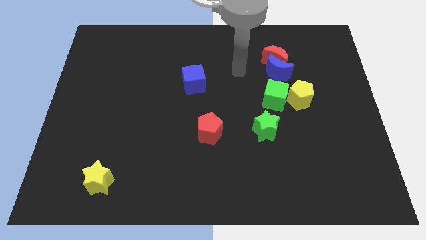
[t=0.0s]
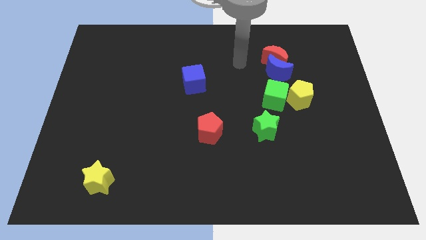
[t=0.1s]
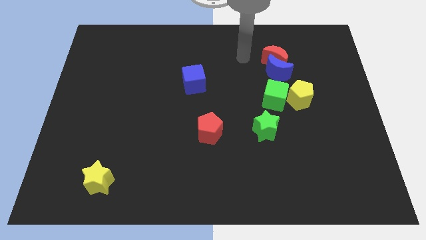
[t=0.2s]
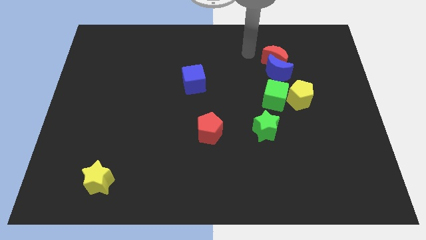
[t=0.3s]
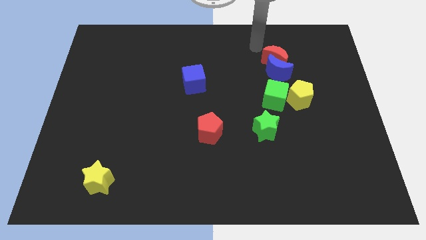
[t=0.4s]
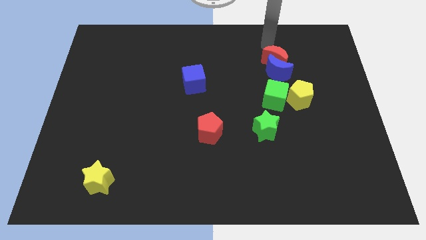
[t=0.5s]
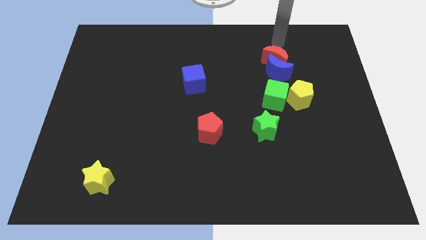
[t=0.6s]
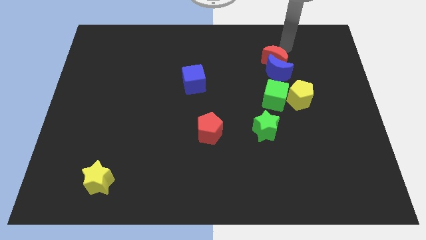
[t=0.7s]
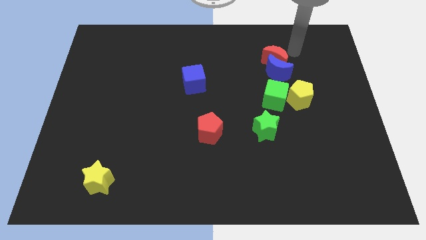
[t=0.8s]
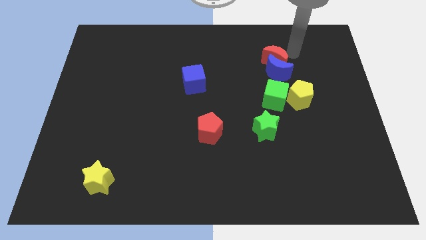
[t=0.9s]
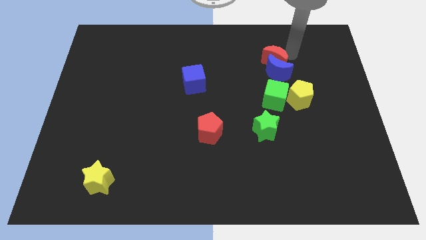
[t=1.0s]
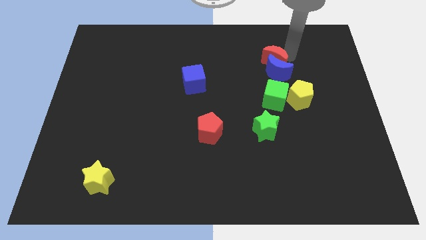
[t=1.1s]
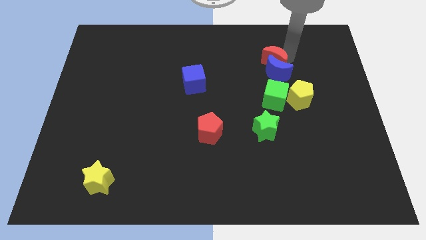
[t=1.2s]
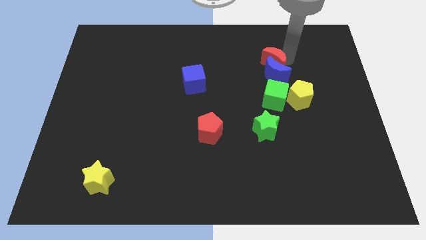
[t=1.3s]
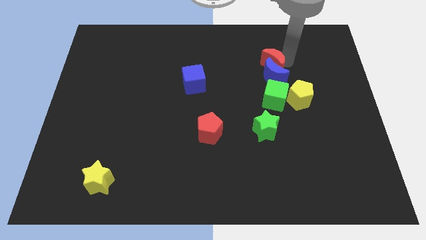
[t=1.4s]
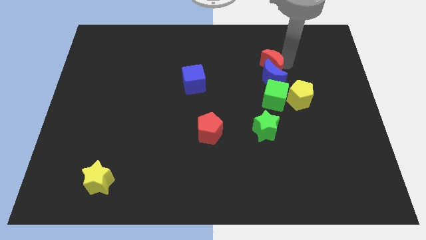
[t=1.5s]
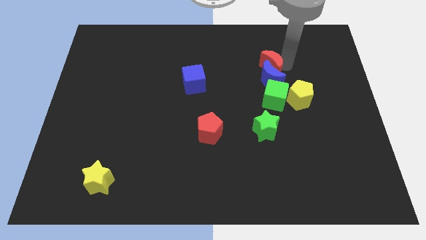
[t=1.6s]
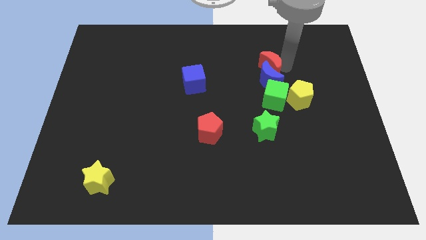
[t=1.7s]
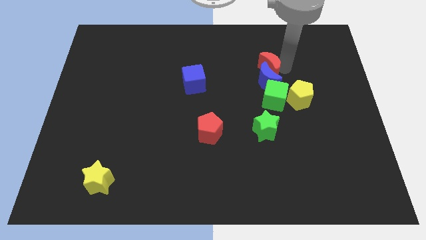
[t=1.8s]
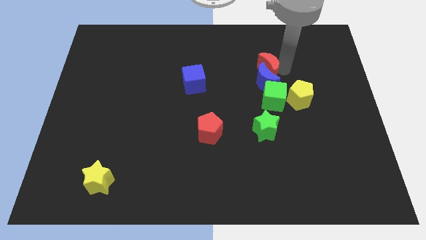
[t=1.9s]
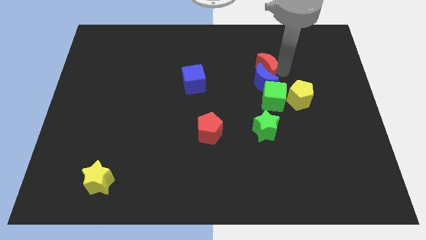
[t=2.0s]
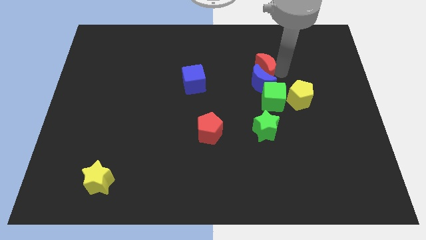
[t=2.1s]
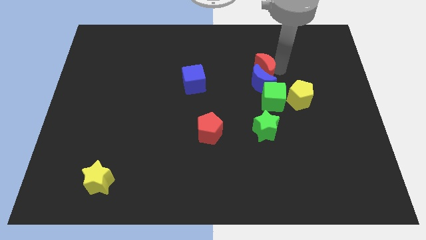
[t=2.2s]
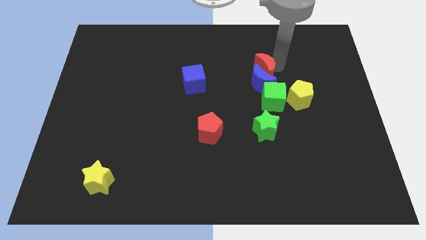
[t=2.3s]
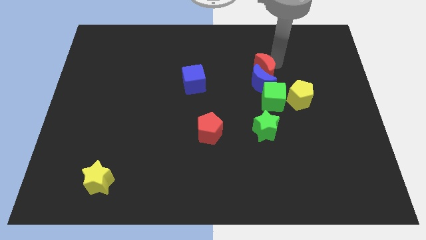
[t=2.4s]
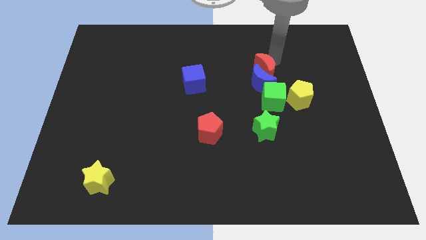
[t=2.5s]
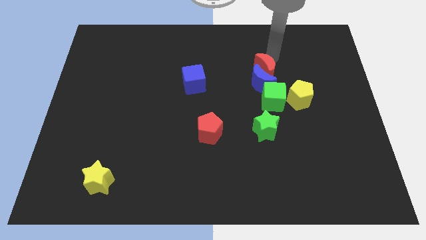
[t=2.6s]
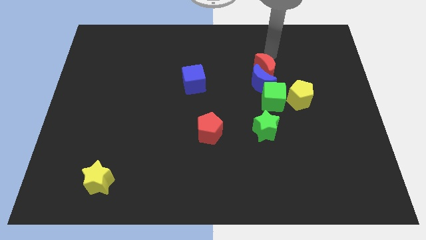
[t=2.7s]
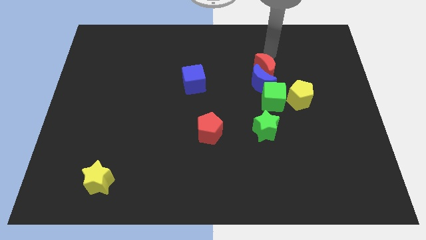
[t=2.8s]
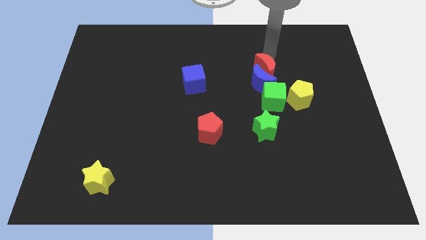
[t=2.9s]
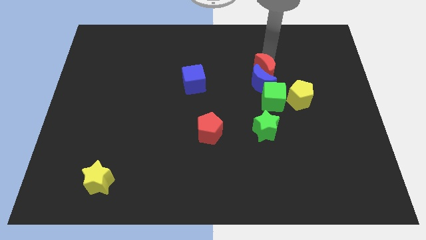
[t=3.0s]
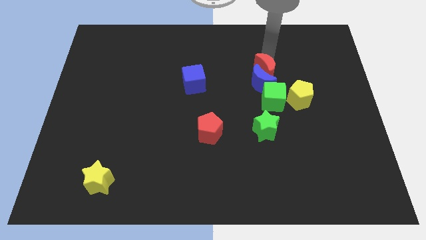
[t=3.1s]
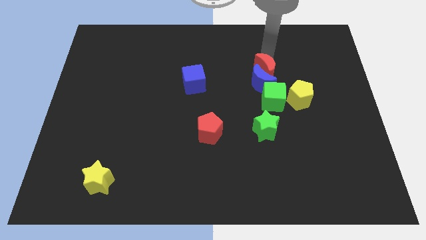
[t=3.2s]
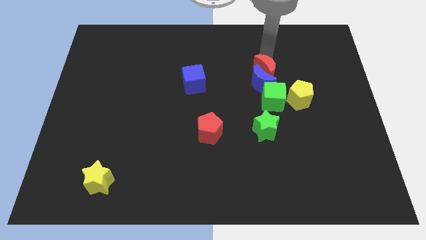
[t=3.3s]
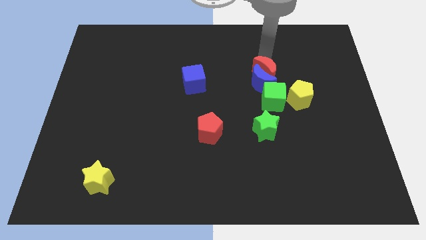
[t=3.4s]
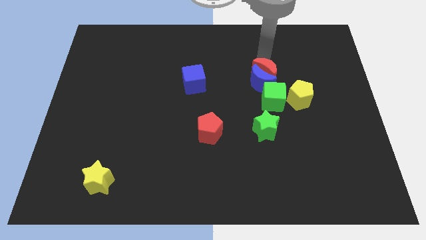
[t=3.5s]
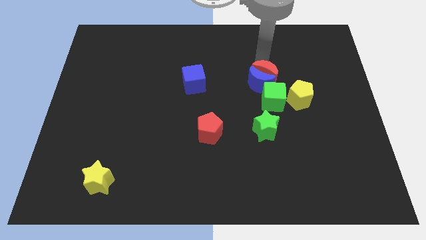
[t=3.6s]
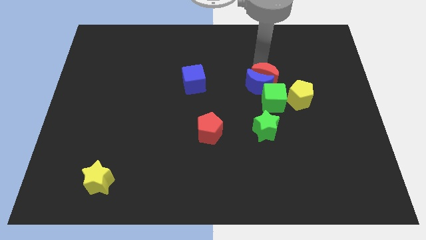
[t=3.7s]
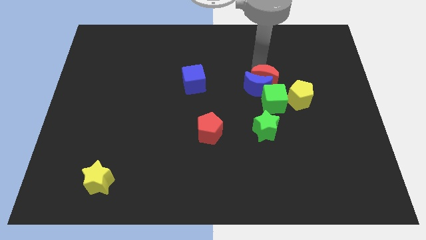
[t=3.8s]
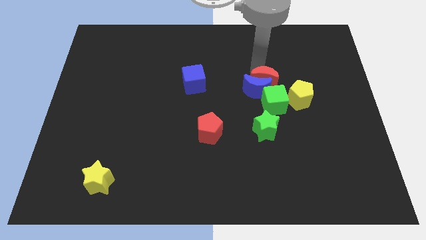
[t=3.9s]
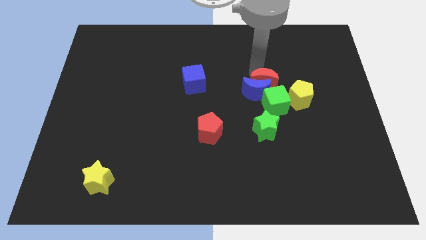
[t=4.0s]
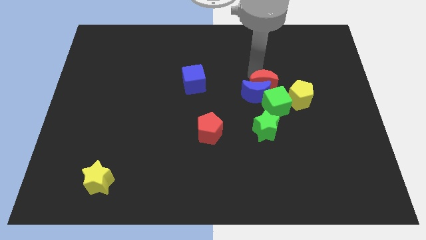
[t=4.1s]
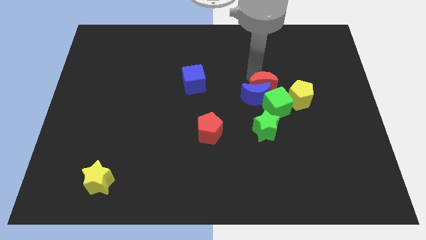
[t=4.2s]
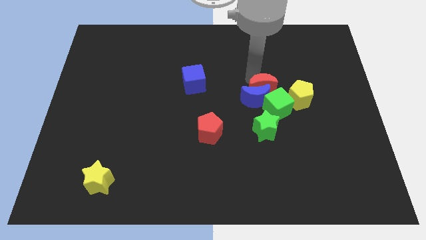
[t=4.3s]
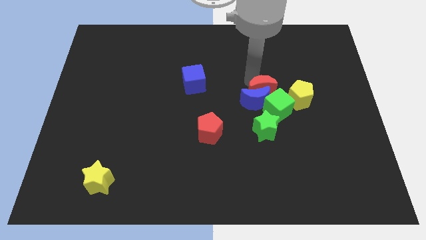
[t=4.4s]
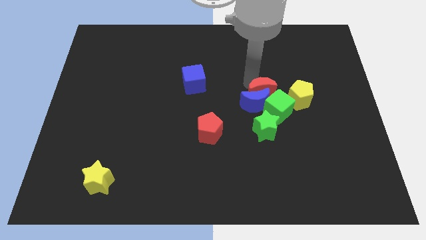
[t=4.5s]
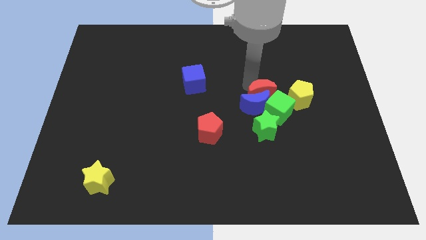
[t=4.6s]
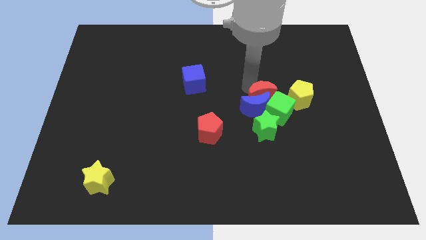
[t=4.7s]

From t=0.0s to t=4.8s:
move the red moon towards the green cube

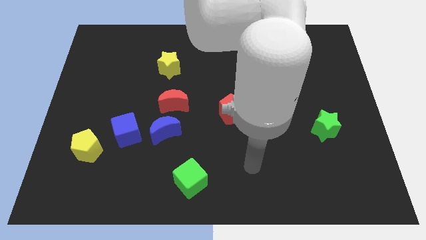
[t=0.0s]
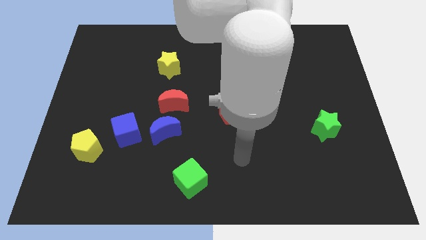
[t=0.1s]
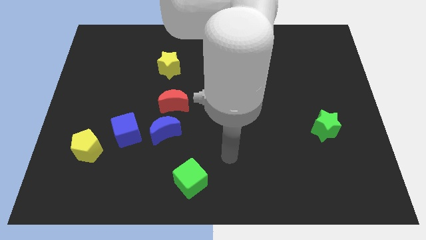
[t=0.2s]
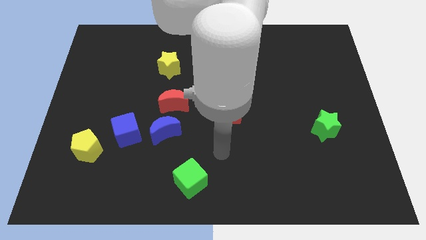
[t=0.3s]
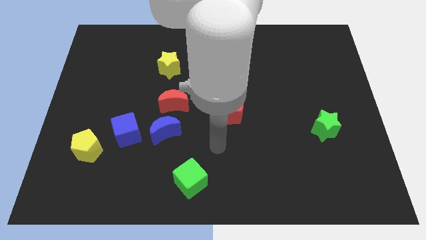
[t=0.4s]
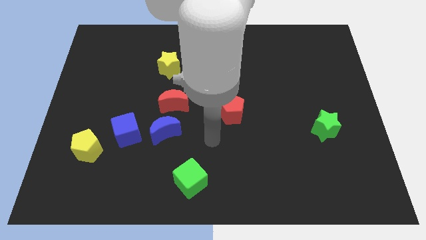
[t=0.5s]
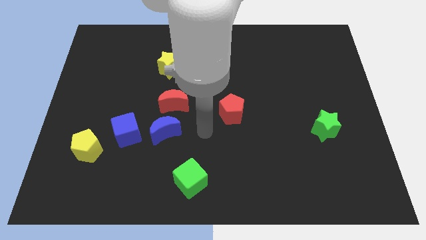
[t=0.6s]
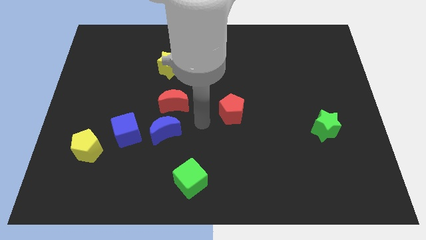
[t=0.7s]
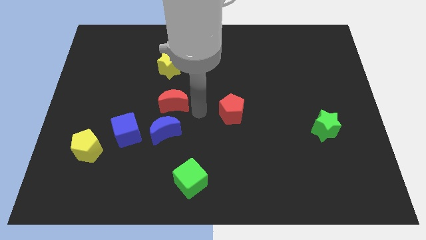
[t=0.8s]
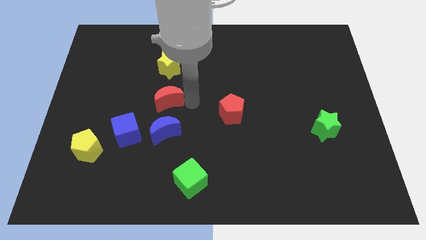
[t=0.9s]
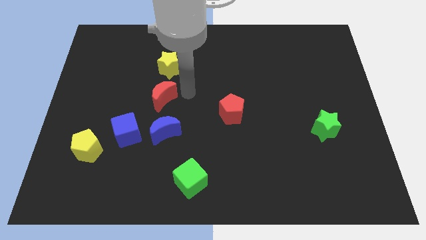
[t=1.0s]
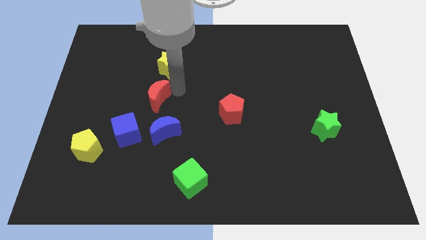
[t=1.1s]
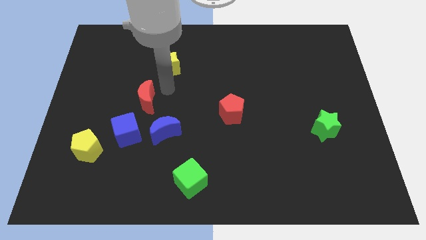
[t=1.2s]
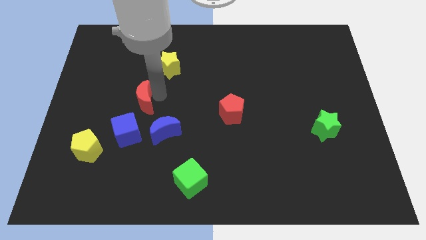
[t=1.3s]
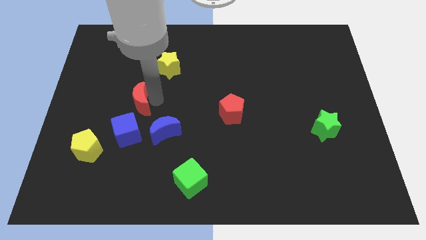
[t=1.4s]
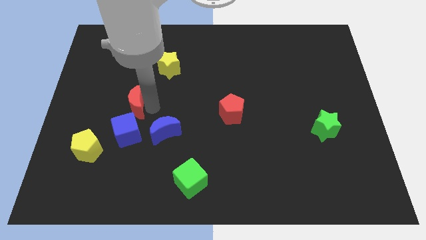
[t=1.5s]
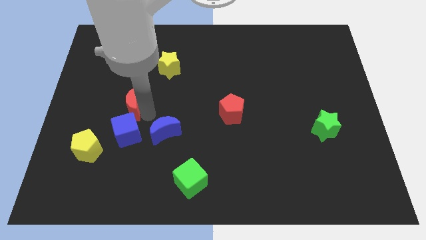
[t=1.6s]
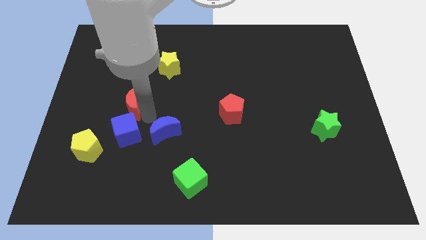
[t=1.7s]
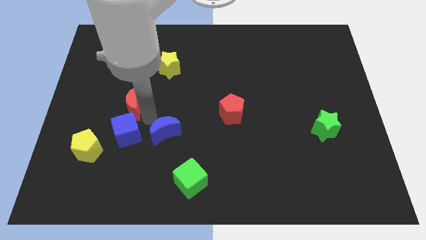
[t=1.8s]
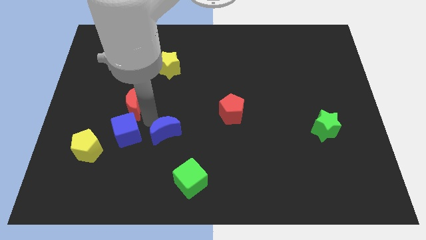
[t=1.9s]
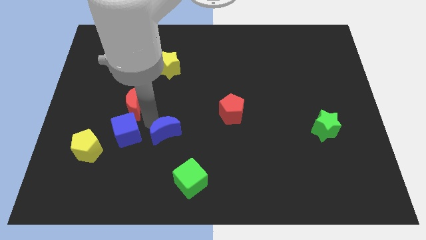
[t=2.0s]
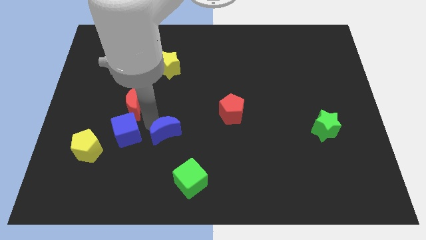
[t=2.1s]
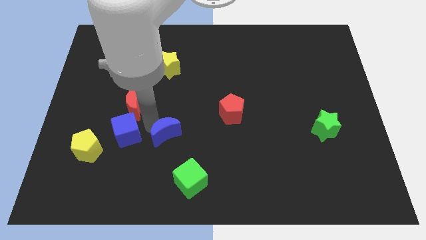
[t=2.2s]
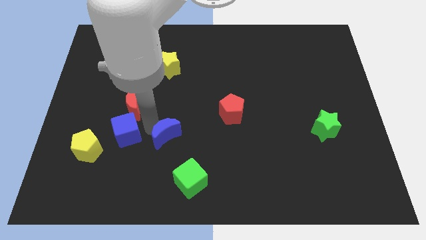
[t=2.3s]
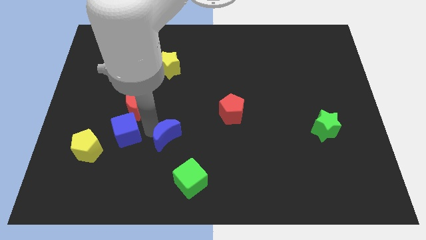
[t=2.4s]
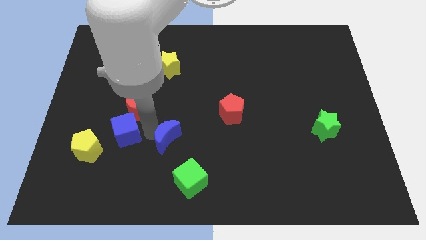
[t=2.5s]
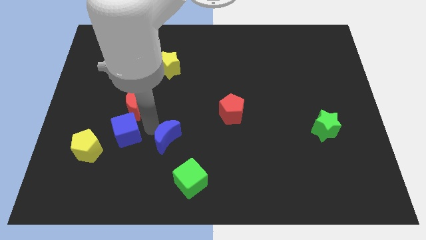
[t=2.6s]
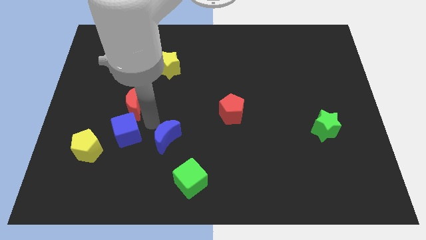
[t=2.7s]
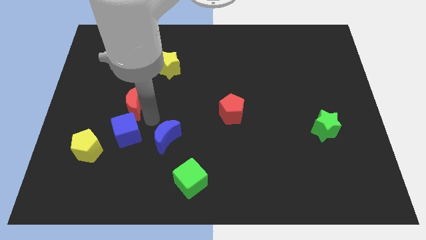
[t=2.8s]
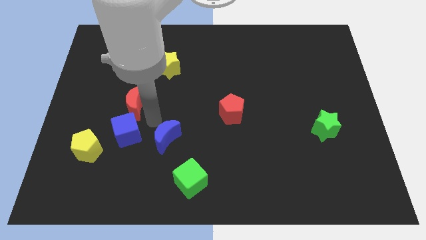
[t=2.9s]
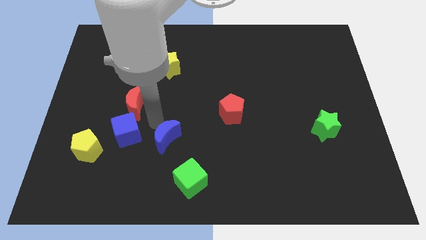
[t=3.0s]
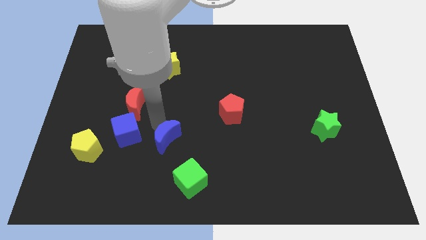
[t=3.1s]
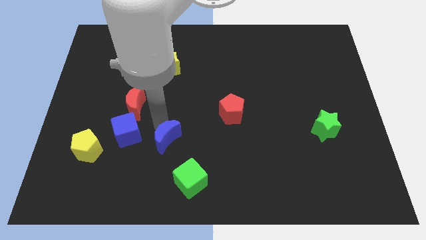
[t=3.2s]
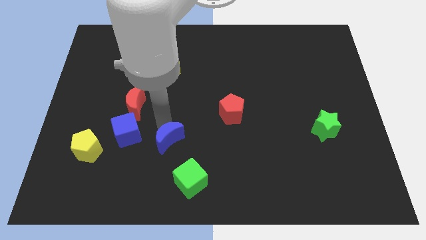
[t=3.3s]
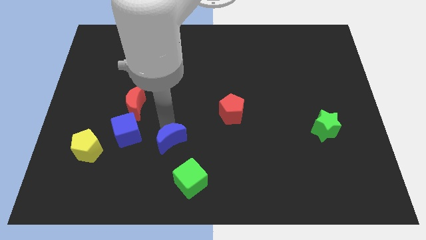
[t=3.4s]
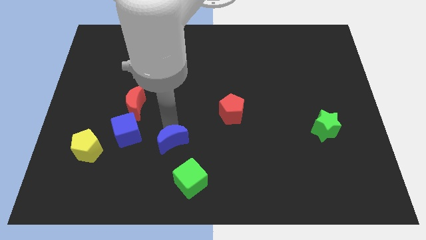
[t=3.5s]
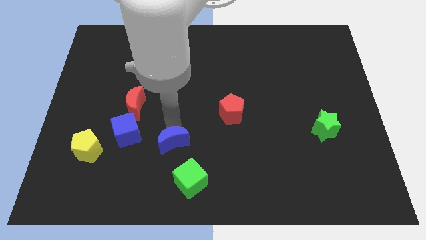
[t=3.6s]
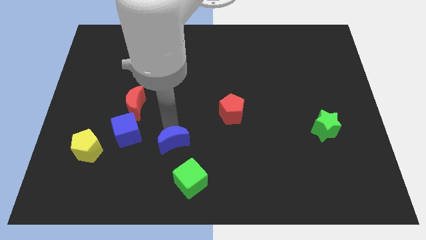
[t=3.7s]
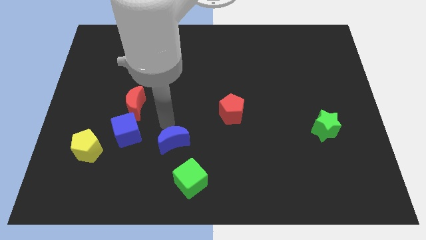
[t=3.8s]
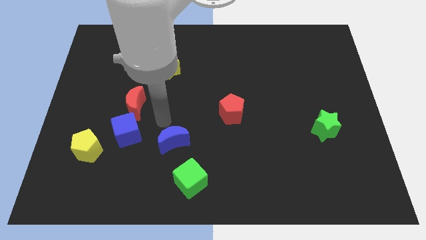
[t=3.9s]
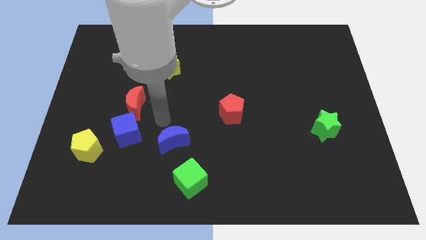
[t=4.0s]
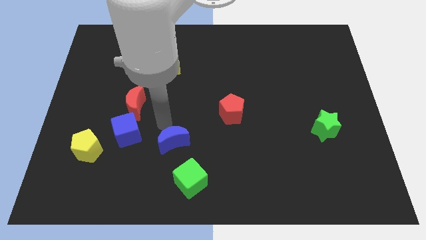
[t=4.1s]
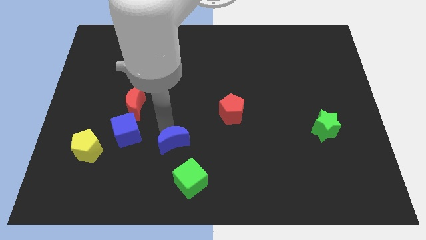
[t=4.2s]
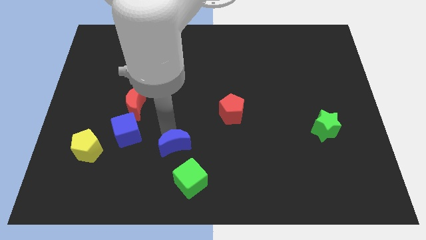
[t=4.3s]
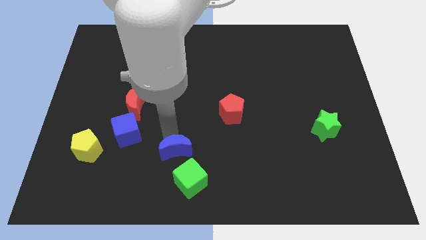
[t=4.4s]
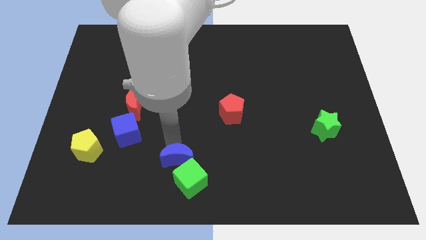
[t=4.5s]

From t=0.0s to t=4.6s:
slide the blue moon towards the green cube
